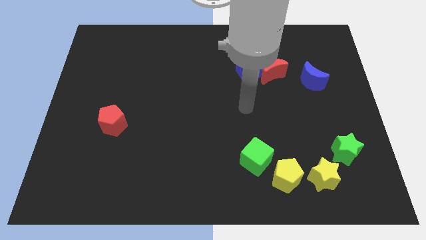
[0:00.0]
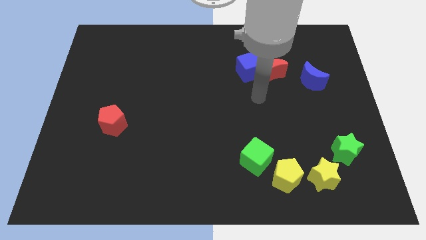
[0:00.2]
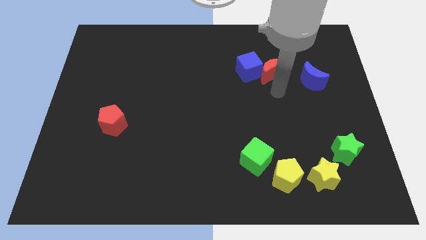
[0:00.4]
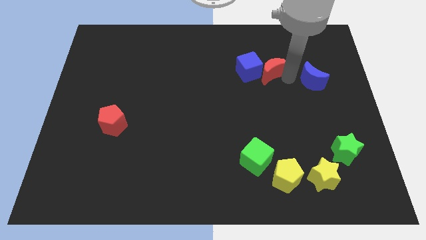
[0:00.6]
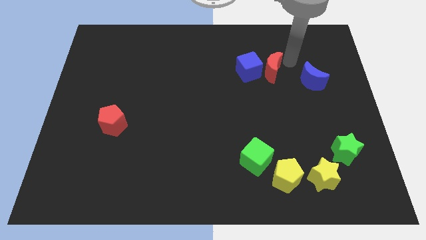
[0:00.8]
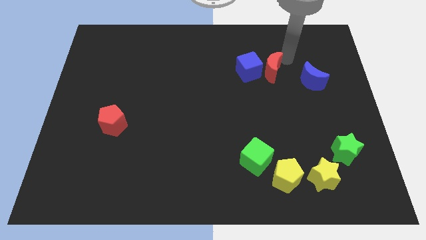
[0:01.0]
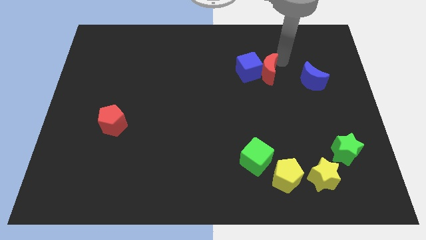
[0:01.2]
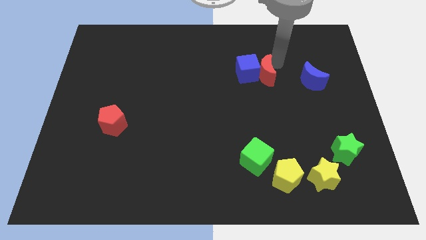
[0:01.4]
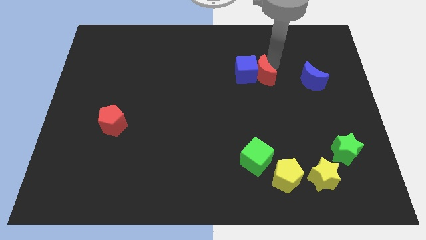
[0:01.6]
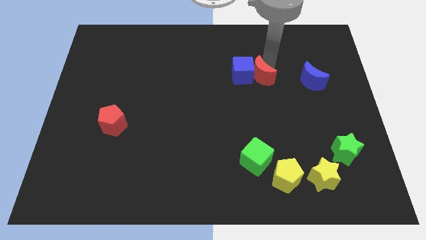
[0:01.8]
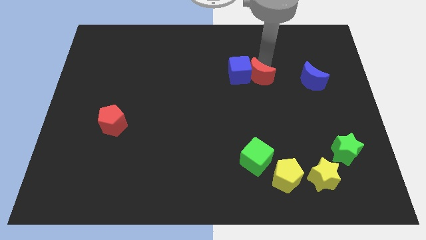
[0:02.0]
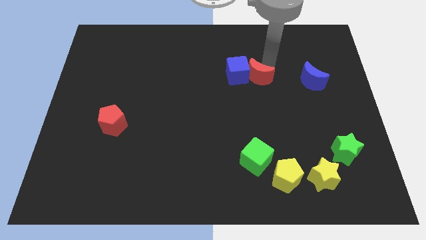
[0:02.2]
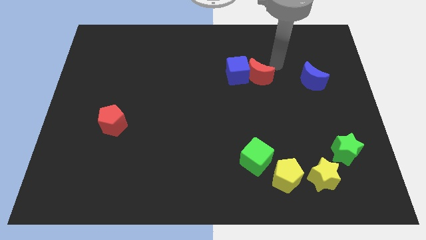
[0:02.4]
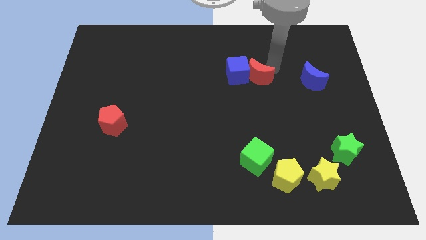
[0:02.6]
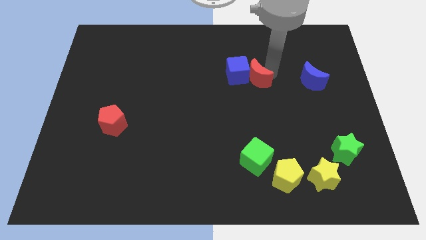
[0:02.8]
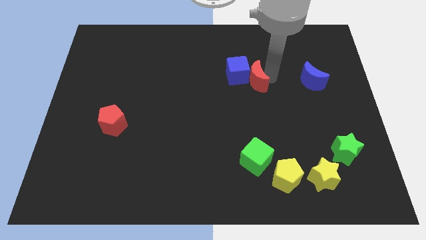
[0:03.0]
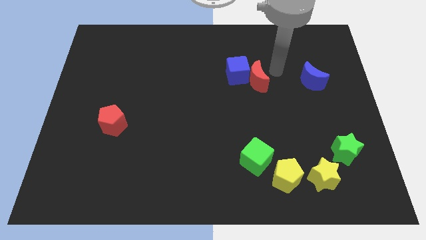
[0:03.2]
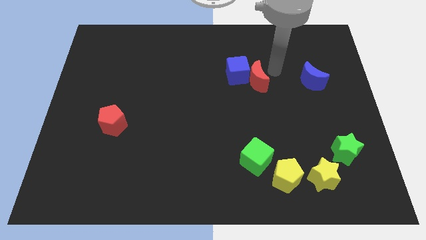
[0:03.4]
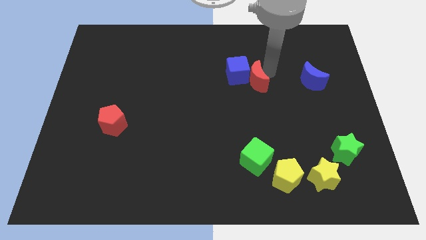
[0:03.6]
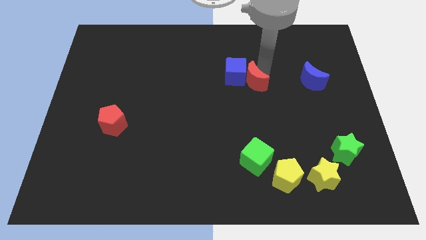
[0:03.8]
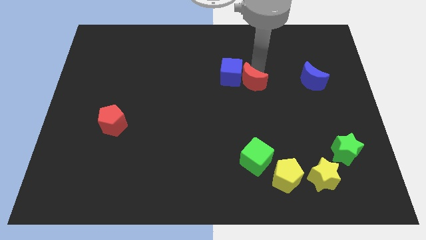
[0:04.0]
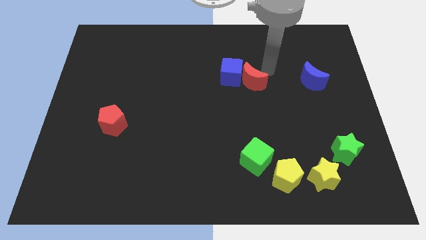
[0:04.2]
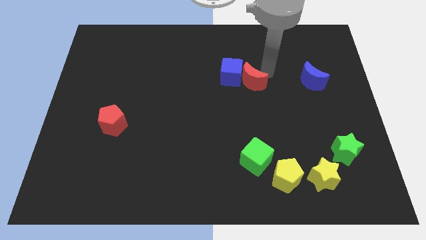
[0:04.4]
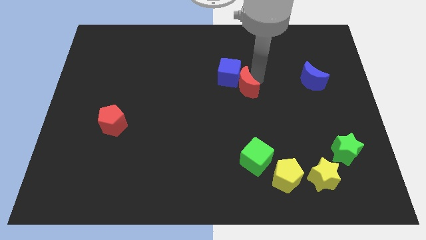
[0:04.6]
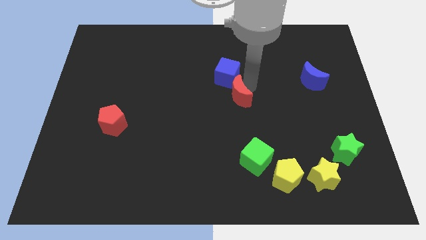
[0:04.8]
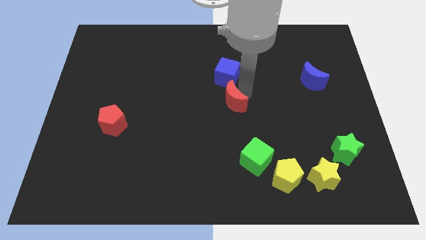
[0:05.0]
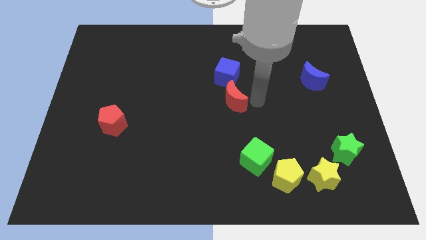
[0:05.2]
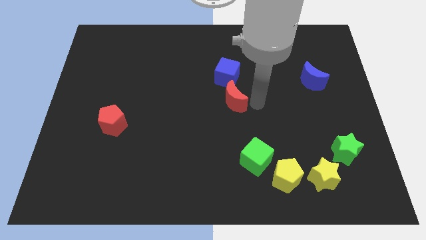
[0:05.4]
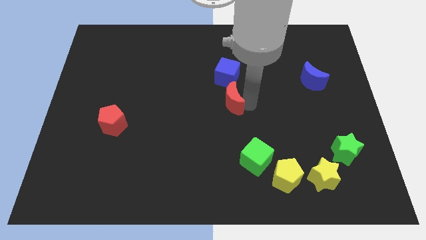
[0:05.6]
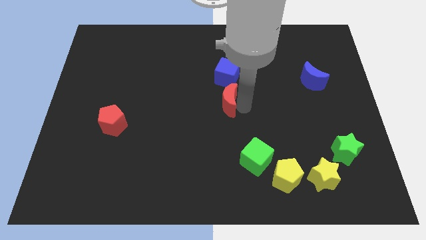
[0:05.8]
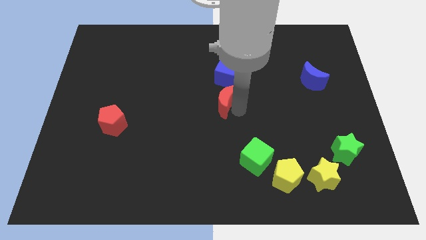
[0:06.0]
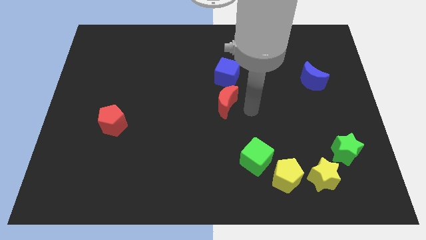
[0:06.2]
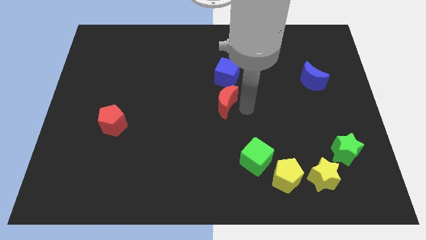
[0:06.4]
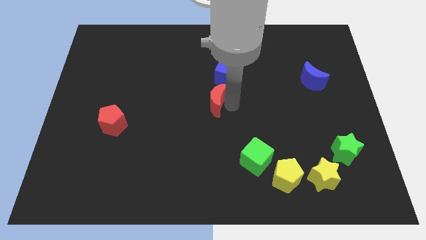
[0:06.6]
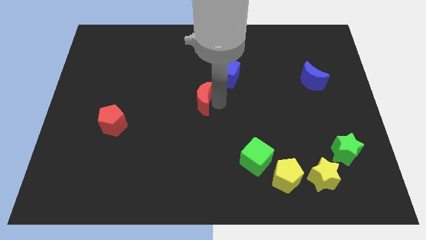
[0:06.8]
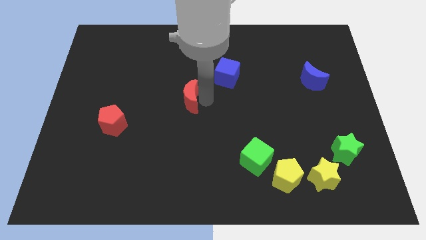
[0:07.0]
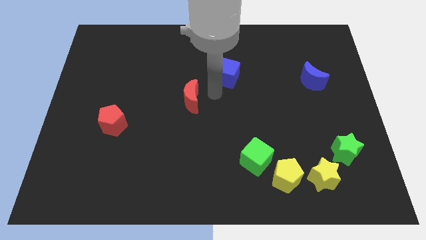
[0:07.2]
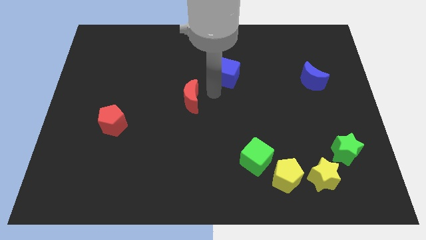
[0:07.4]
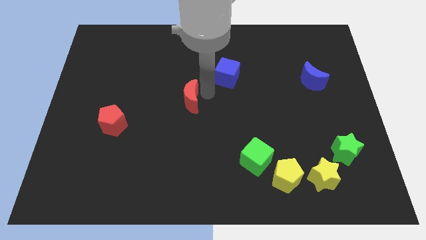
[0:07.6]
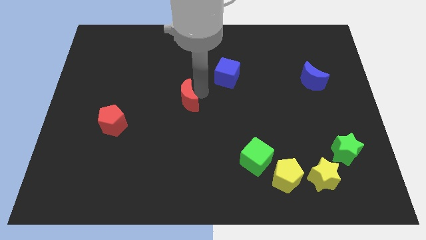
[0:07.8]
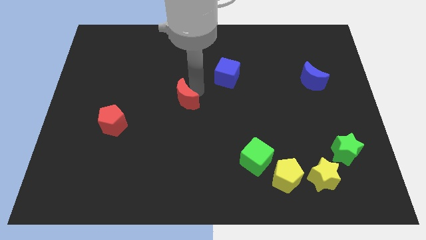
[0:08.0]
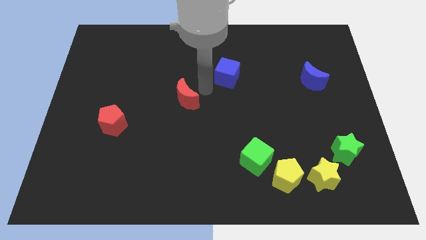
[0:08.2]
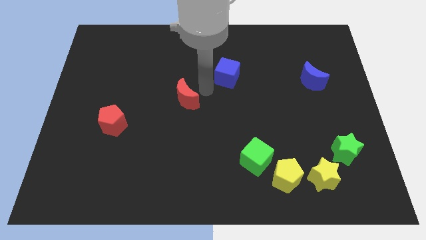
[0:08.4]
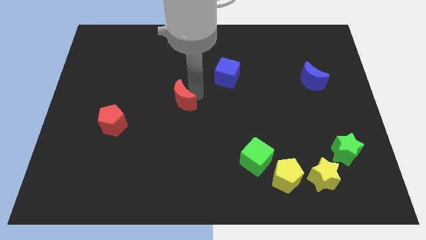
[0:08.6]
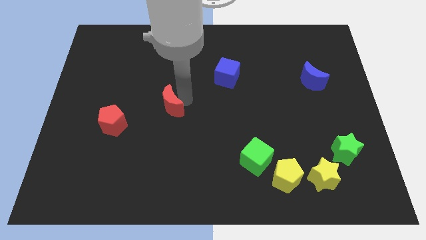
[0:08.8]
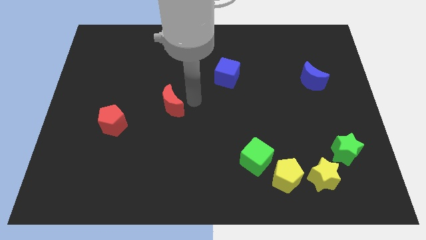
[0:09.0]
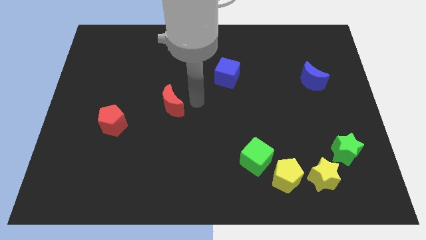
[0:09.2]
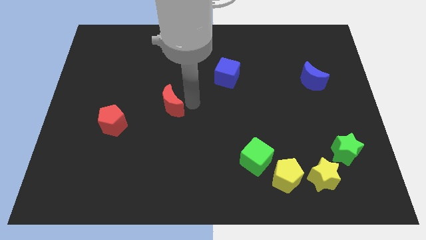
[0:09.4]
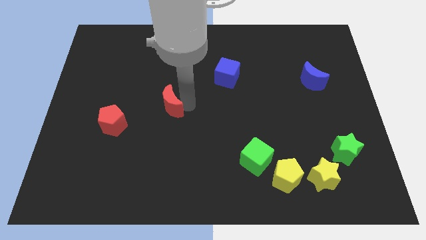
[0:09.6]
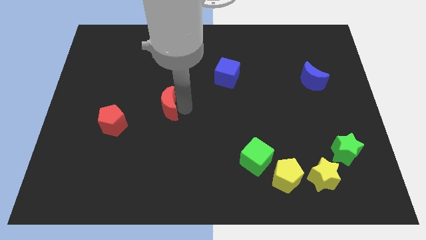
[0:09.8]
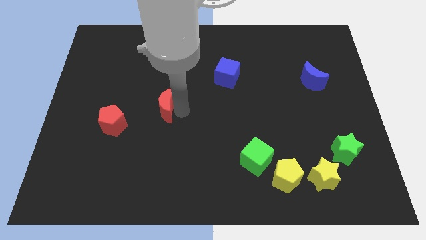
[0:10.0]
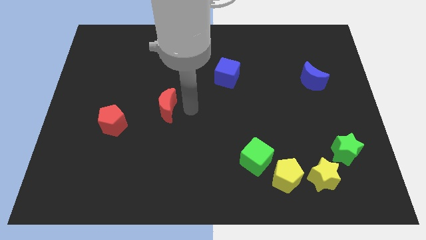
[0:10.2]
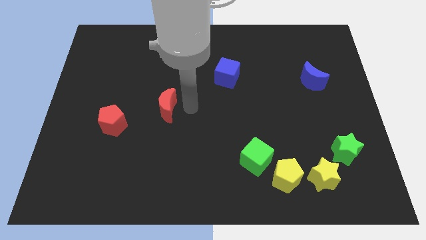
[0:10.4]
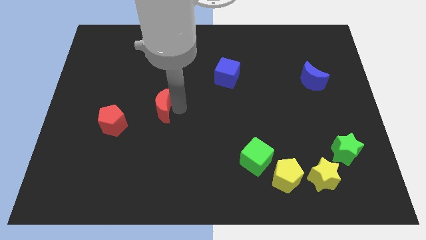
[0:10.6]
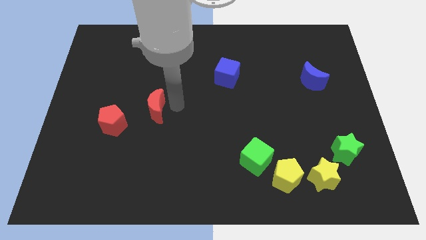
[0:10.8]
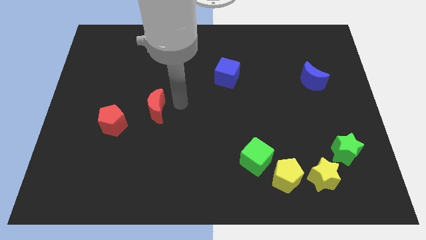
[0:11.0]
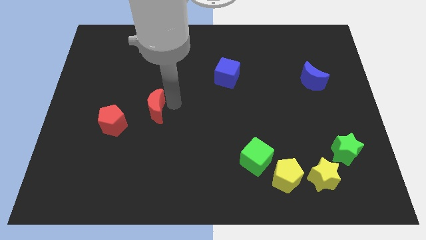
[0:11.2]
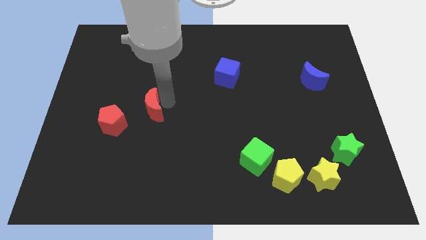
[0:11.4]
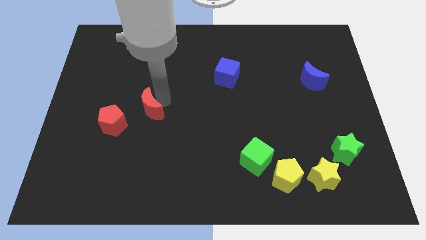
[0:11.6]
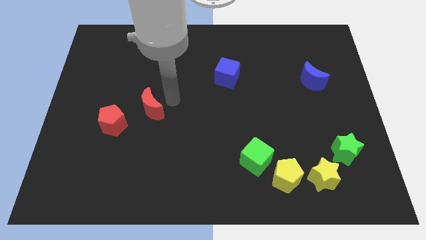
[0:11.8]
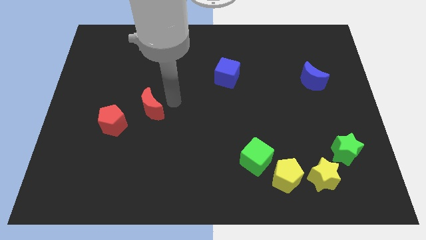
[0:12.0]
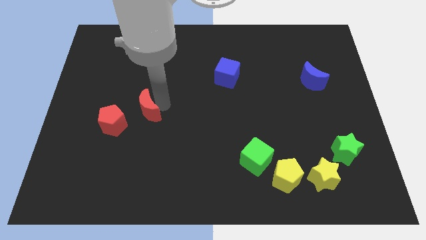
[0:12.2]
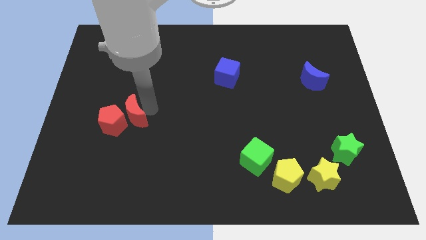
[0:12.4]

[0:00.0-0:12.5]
slide the red moon to the red pentagon

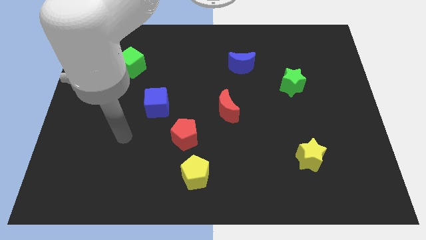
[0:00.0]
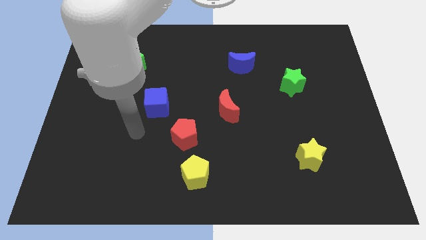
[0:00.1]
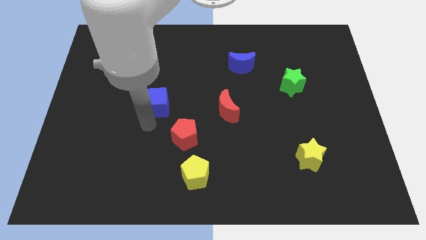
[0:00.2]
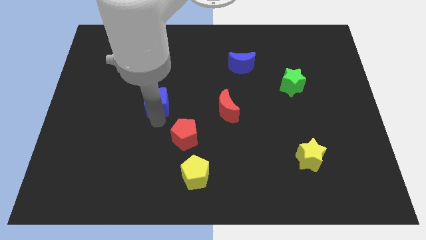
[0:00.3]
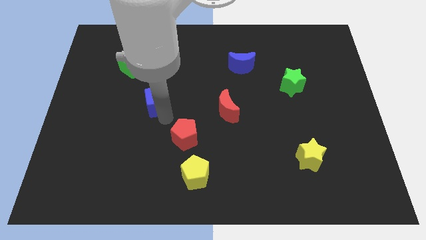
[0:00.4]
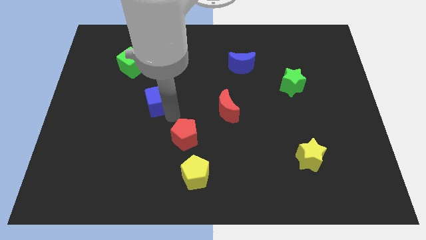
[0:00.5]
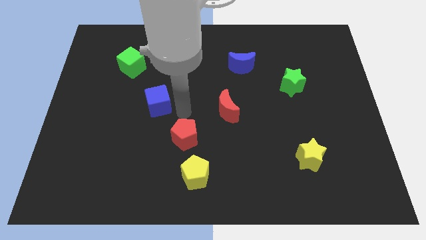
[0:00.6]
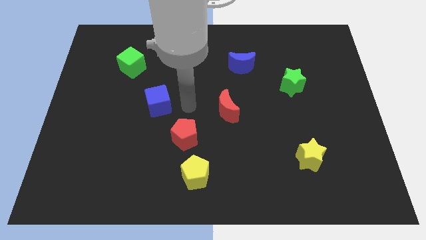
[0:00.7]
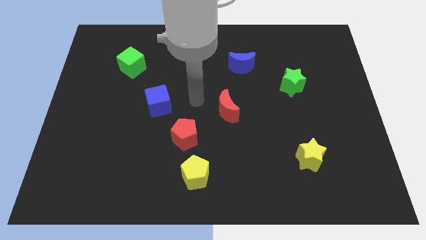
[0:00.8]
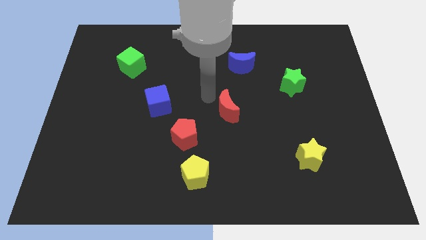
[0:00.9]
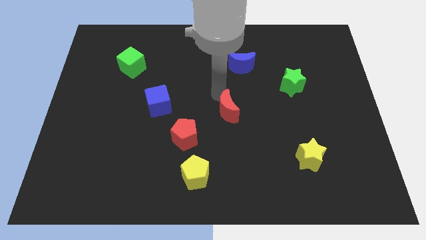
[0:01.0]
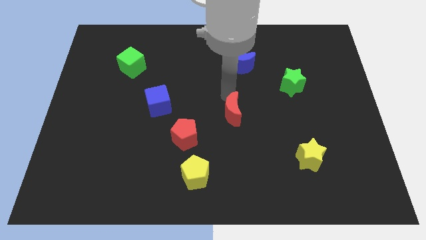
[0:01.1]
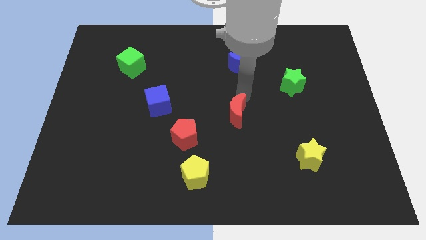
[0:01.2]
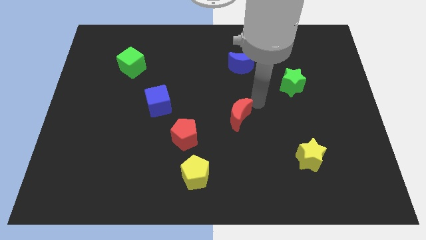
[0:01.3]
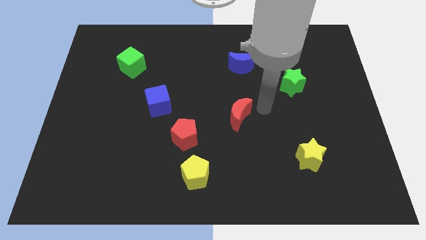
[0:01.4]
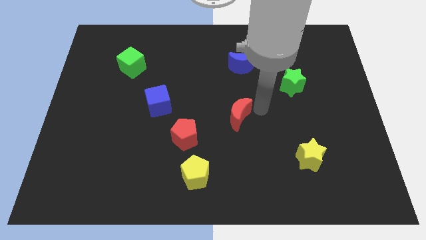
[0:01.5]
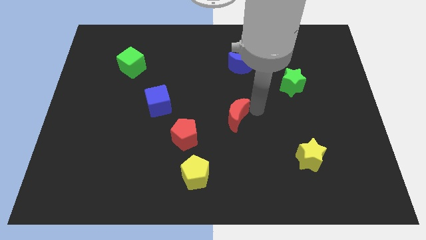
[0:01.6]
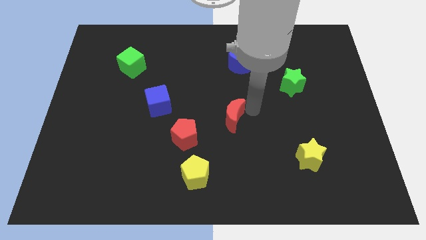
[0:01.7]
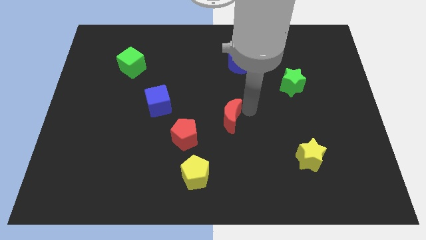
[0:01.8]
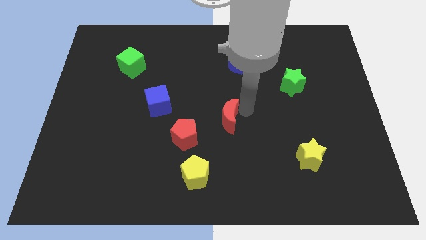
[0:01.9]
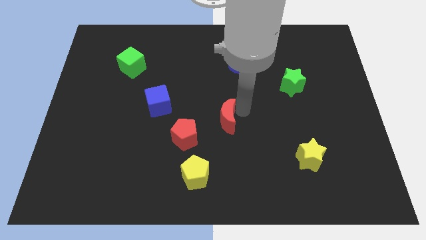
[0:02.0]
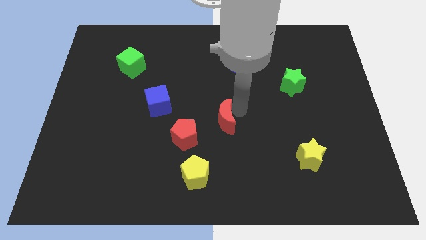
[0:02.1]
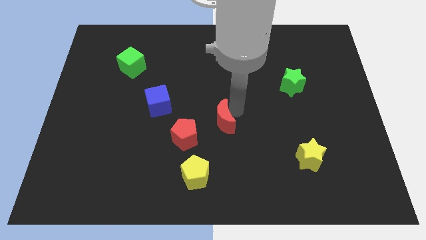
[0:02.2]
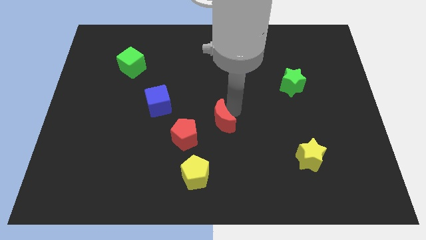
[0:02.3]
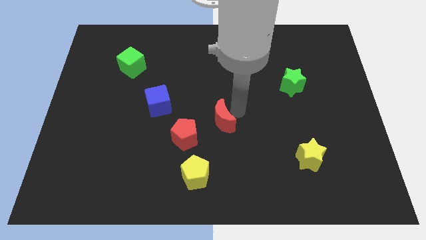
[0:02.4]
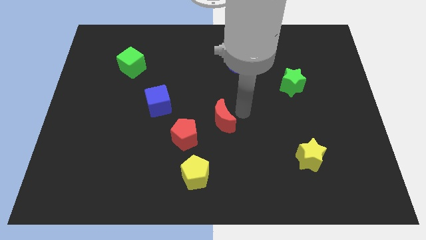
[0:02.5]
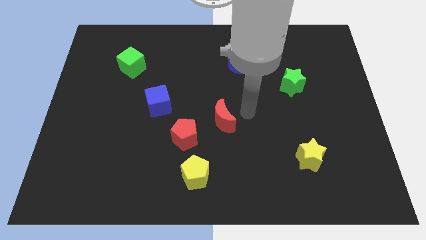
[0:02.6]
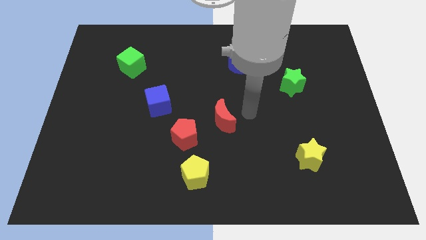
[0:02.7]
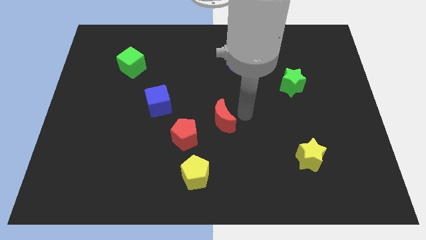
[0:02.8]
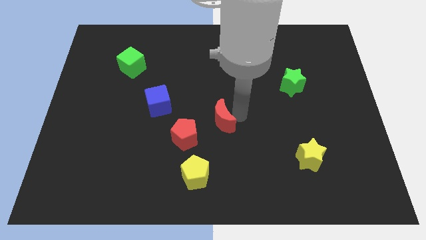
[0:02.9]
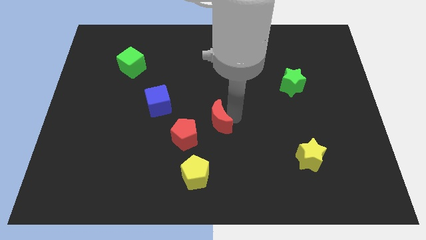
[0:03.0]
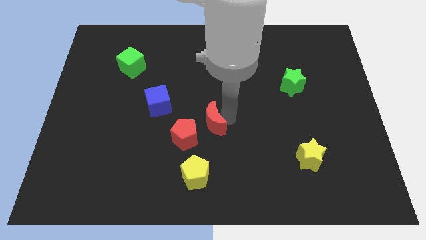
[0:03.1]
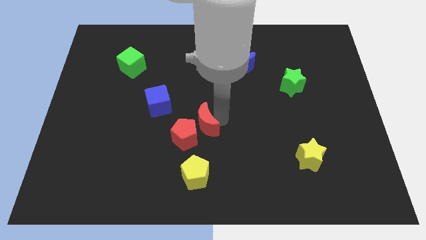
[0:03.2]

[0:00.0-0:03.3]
put the red moon next to the red pentagon
